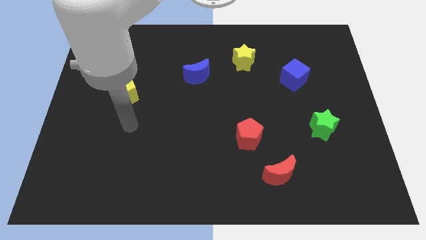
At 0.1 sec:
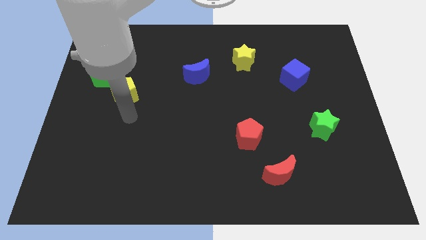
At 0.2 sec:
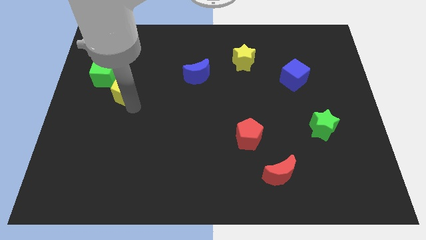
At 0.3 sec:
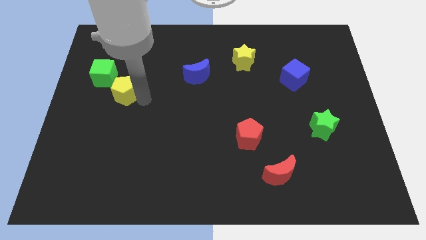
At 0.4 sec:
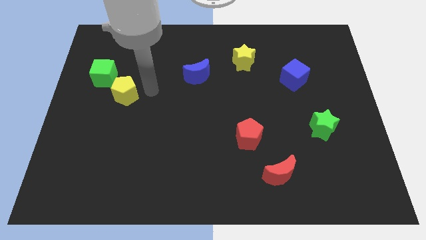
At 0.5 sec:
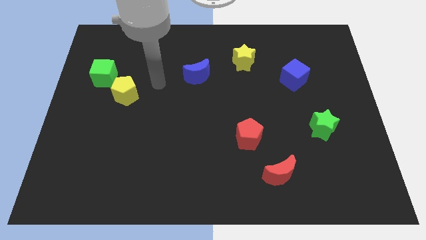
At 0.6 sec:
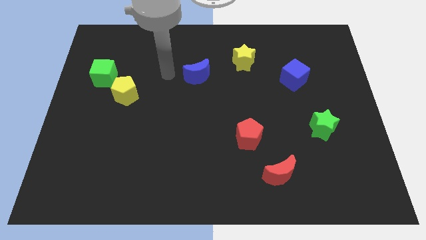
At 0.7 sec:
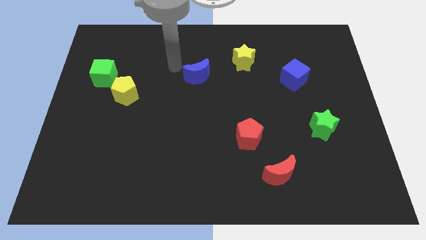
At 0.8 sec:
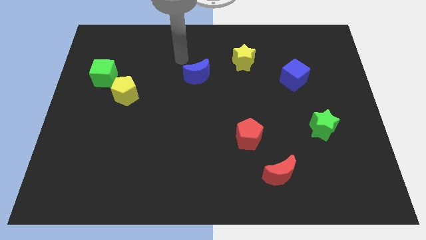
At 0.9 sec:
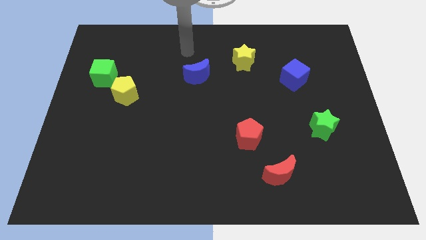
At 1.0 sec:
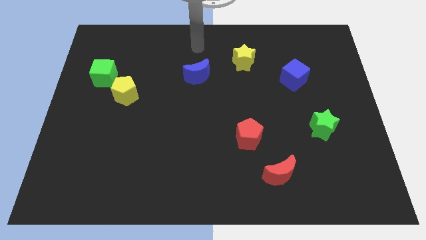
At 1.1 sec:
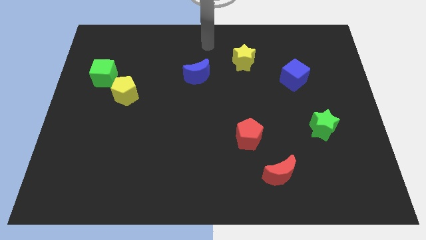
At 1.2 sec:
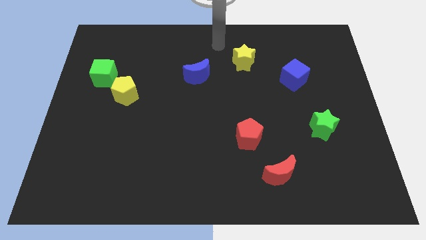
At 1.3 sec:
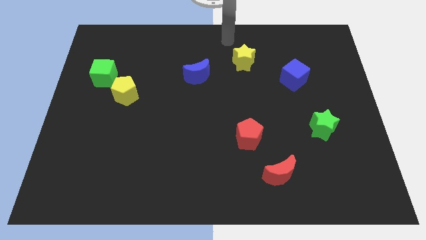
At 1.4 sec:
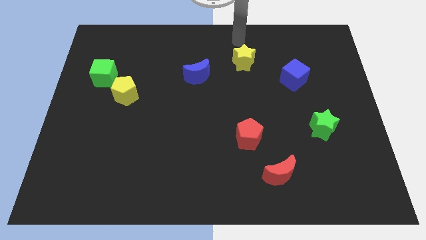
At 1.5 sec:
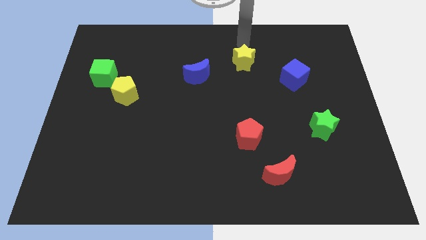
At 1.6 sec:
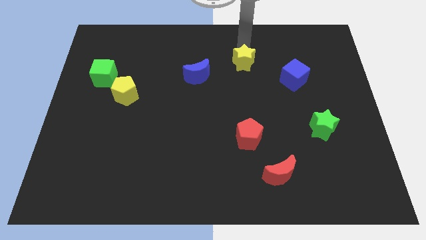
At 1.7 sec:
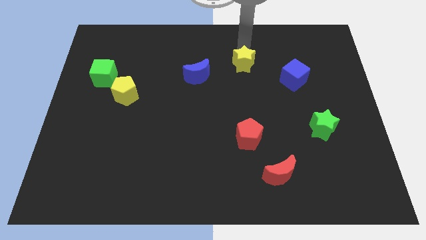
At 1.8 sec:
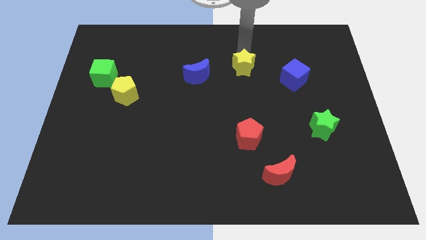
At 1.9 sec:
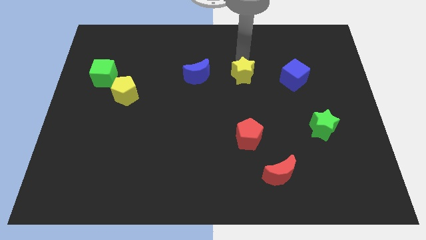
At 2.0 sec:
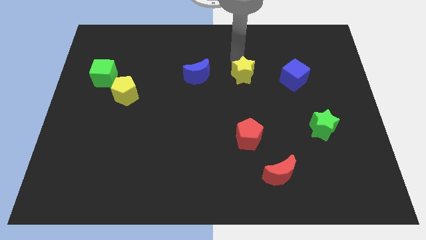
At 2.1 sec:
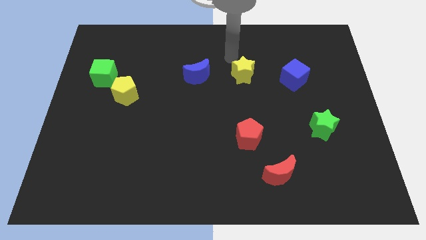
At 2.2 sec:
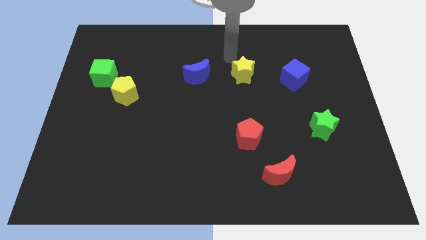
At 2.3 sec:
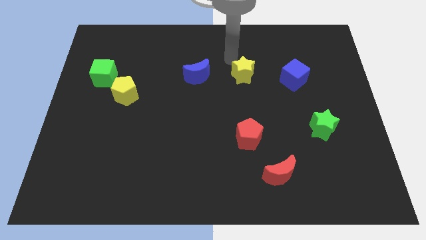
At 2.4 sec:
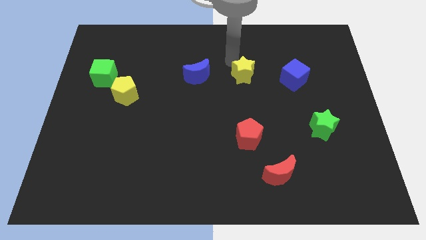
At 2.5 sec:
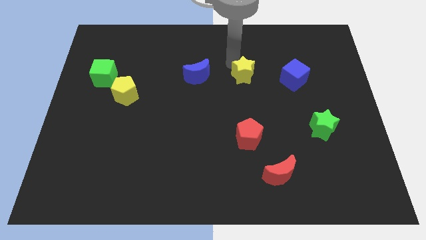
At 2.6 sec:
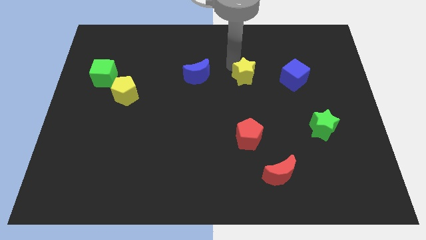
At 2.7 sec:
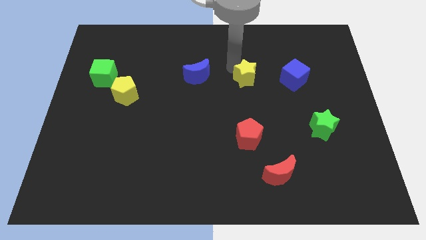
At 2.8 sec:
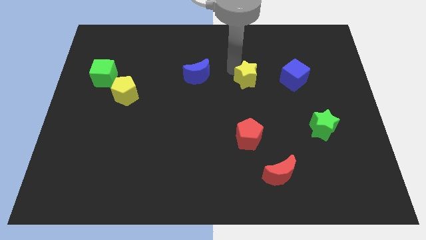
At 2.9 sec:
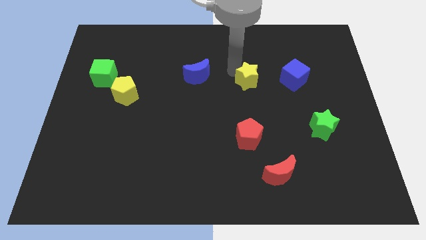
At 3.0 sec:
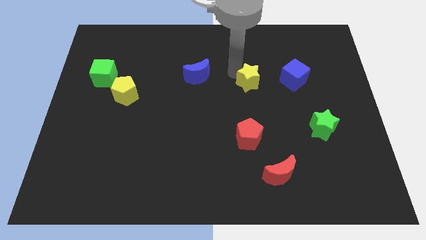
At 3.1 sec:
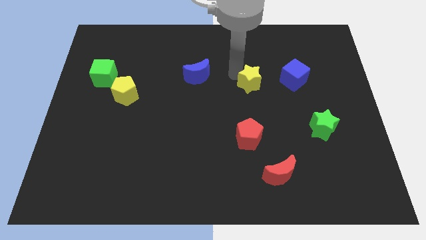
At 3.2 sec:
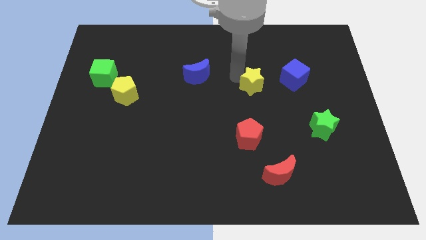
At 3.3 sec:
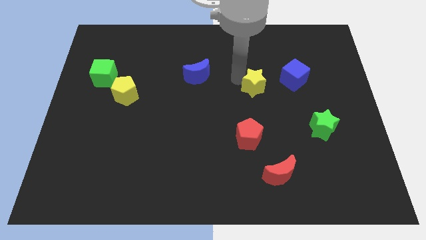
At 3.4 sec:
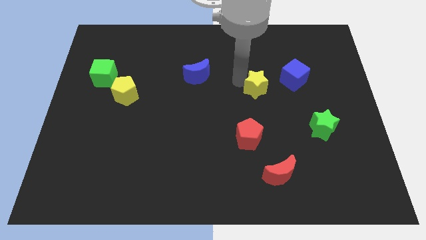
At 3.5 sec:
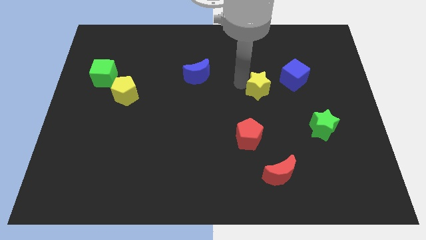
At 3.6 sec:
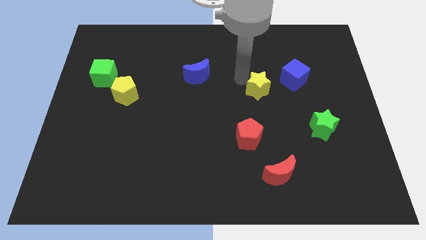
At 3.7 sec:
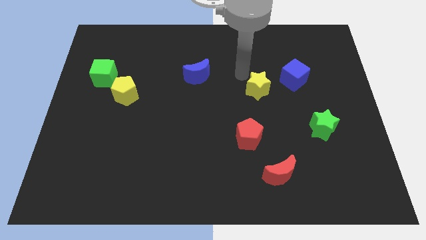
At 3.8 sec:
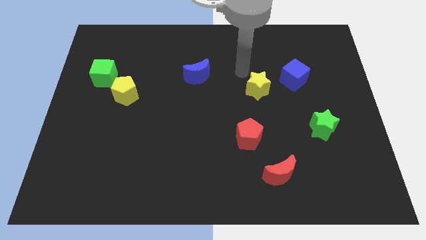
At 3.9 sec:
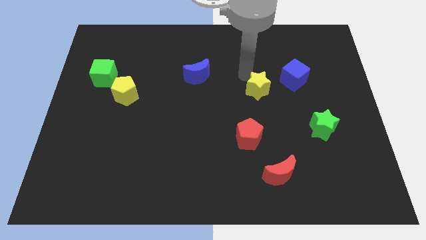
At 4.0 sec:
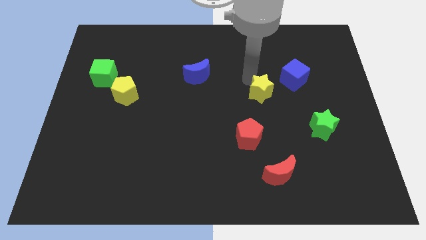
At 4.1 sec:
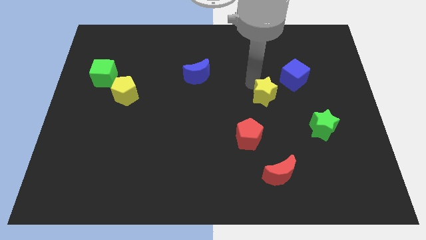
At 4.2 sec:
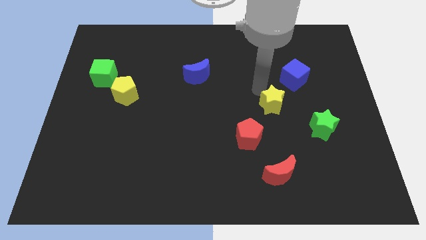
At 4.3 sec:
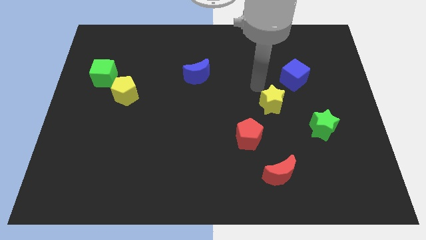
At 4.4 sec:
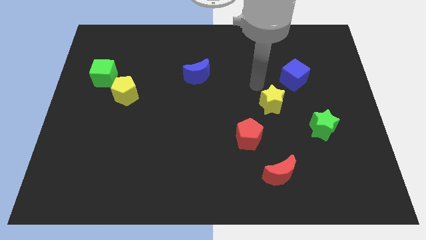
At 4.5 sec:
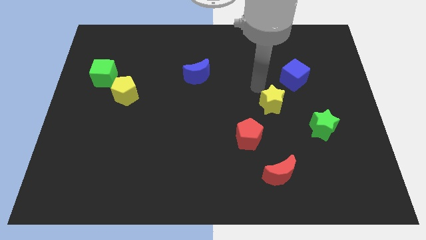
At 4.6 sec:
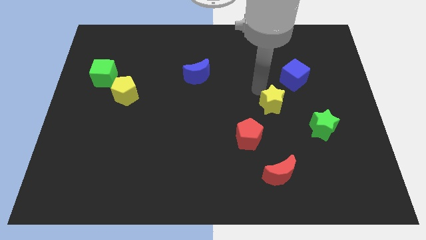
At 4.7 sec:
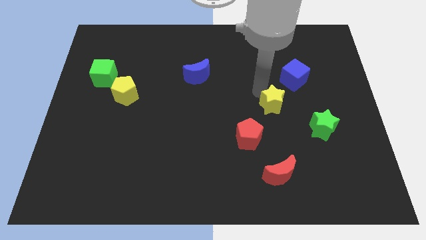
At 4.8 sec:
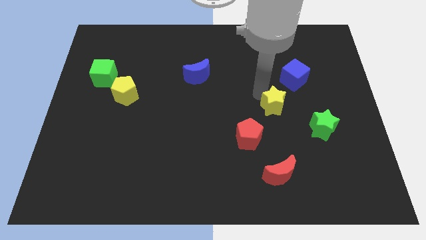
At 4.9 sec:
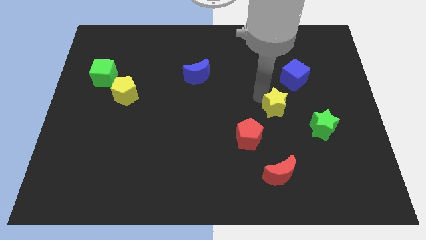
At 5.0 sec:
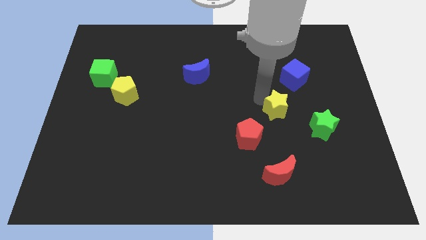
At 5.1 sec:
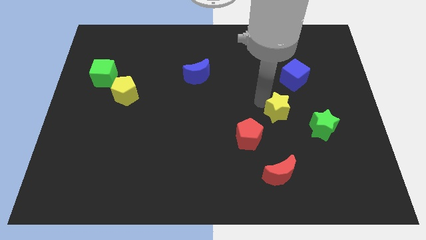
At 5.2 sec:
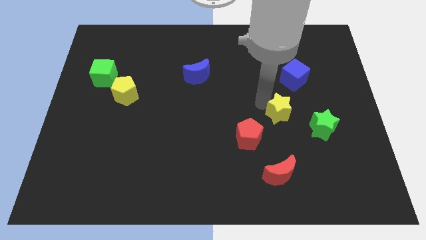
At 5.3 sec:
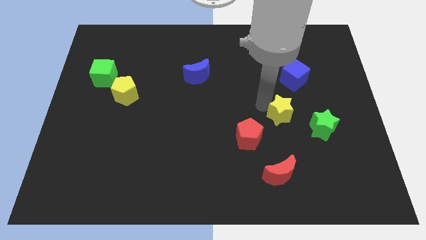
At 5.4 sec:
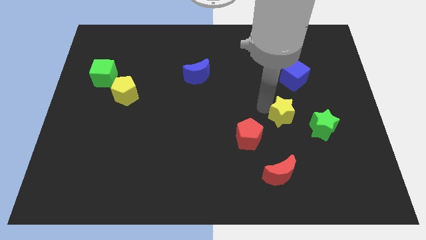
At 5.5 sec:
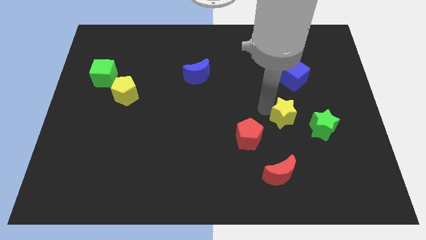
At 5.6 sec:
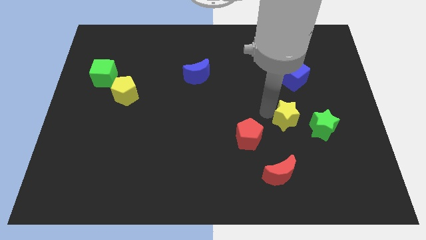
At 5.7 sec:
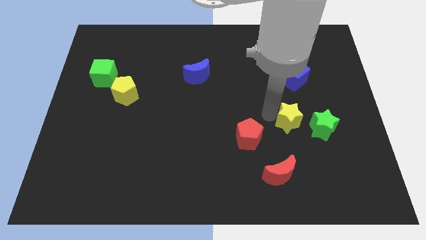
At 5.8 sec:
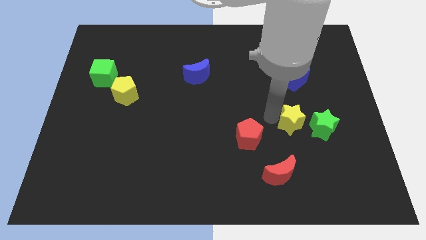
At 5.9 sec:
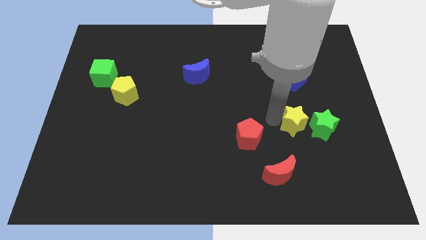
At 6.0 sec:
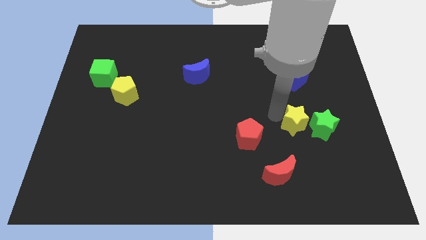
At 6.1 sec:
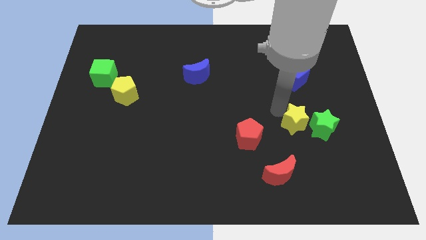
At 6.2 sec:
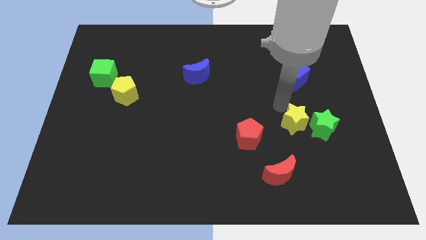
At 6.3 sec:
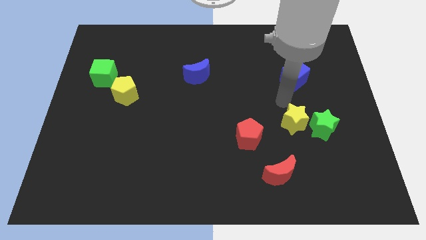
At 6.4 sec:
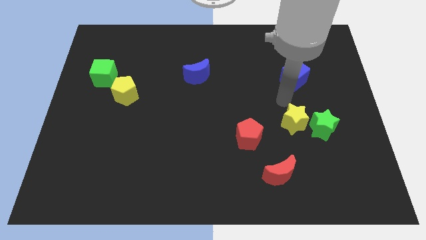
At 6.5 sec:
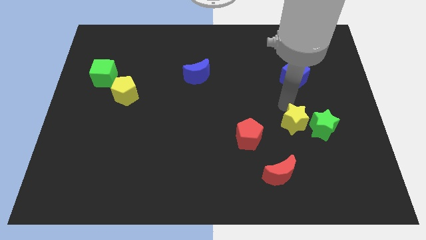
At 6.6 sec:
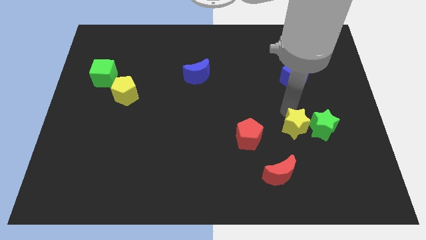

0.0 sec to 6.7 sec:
slide the yellow star diagonally down and to the left of the green star

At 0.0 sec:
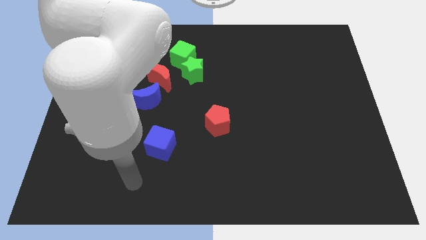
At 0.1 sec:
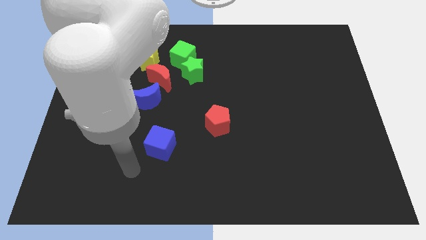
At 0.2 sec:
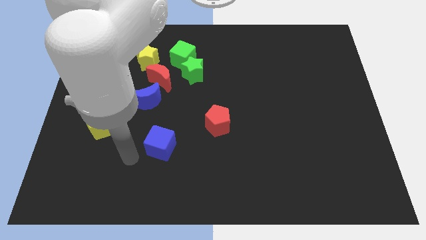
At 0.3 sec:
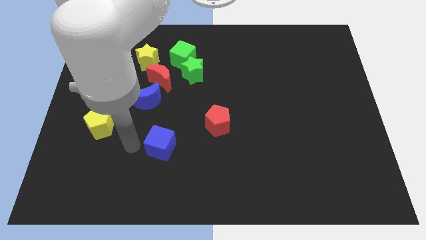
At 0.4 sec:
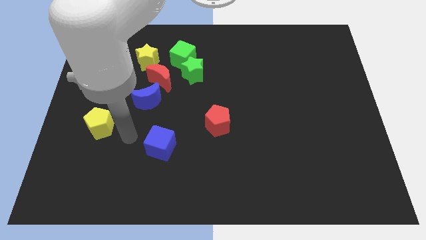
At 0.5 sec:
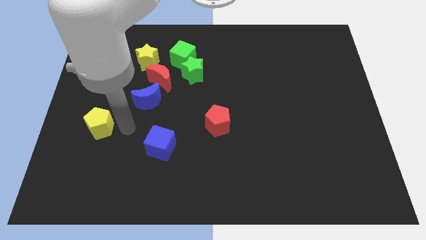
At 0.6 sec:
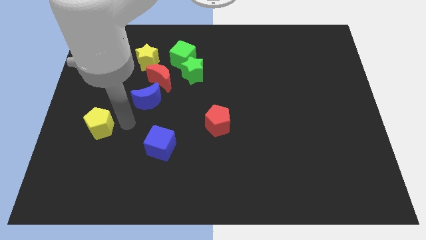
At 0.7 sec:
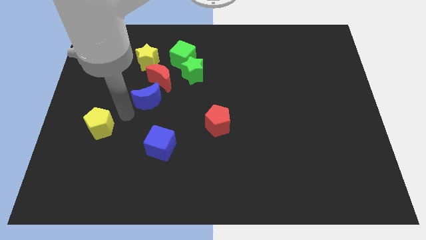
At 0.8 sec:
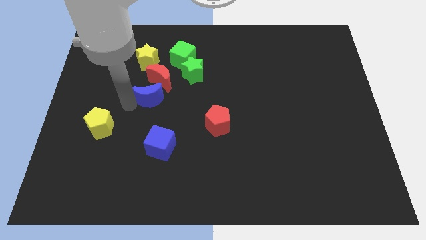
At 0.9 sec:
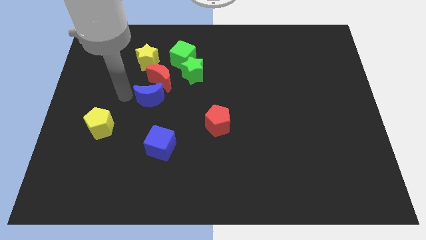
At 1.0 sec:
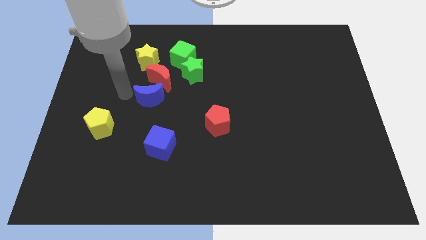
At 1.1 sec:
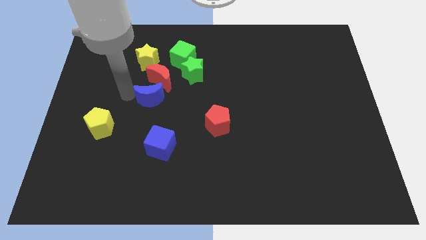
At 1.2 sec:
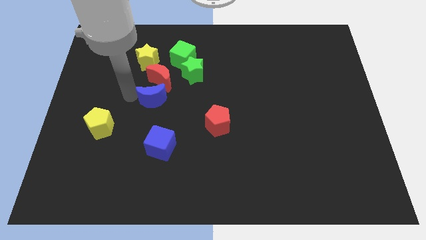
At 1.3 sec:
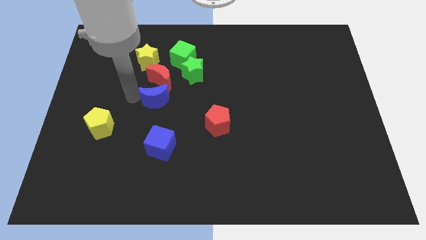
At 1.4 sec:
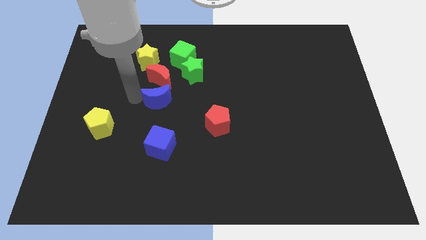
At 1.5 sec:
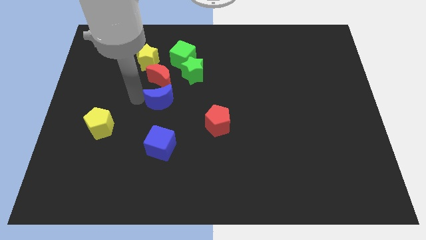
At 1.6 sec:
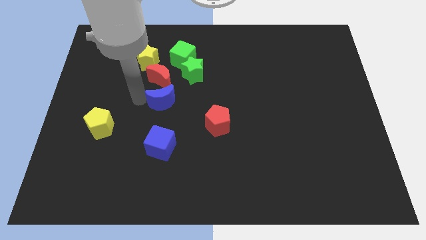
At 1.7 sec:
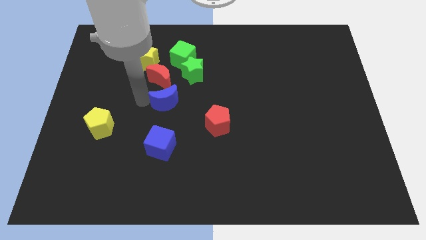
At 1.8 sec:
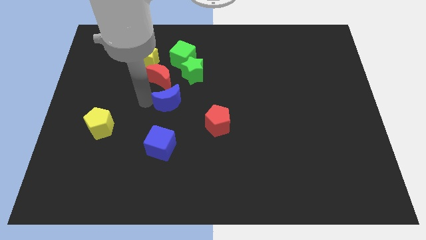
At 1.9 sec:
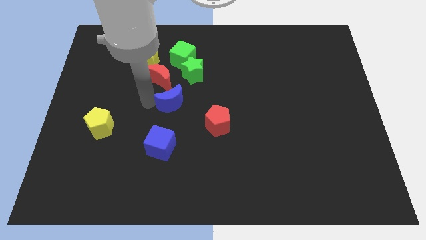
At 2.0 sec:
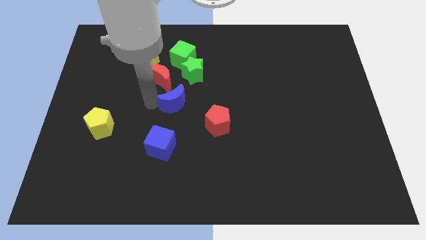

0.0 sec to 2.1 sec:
push the blue moon diagonally up and to the left of the red pentagon
